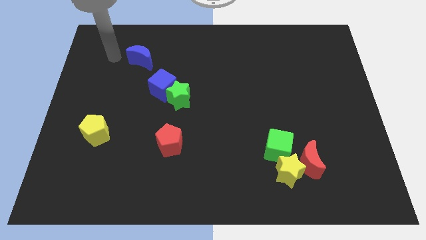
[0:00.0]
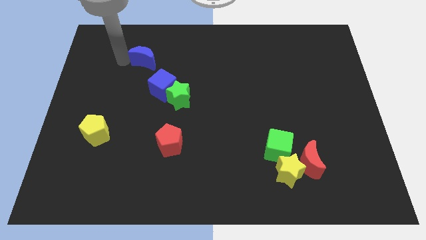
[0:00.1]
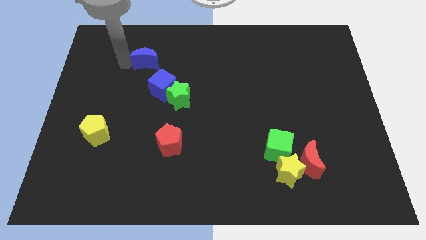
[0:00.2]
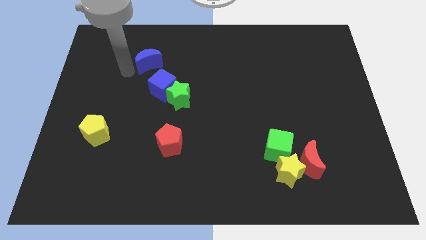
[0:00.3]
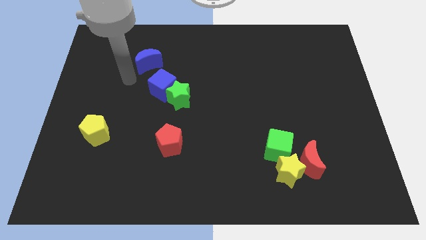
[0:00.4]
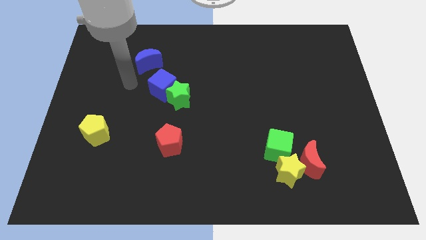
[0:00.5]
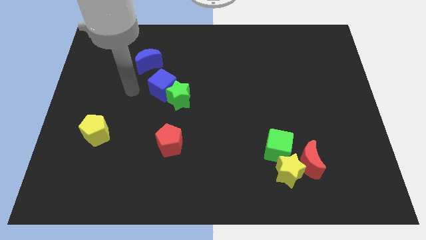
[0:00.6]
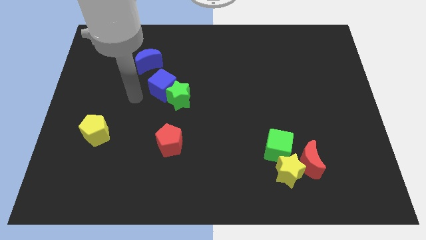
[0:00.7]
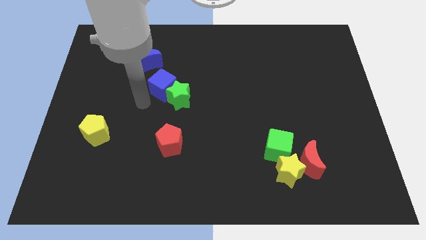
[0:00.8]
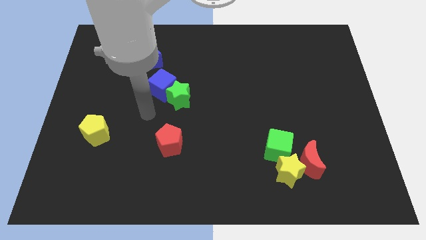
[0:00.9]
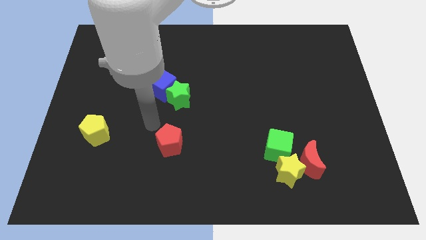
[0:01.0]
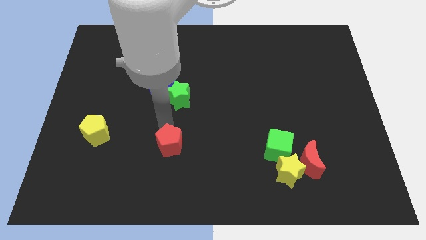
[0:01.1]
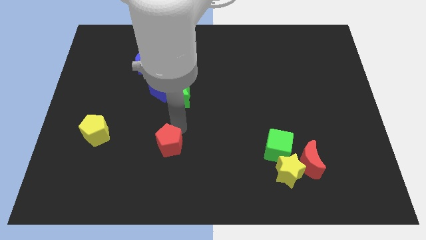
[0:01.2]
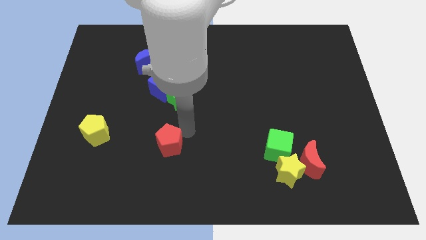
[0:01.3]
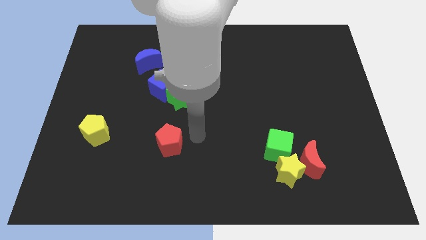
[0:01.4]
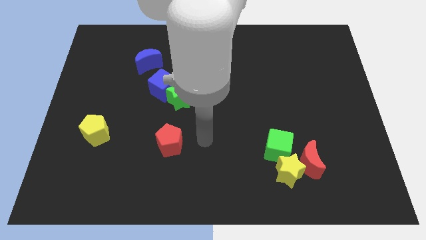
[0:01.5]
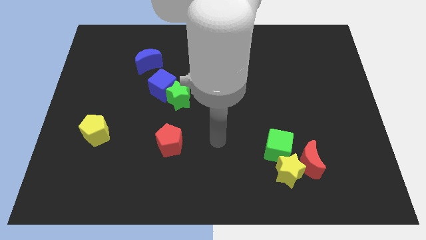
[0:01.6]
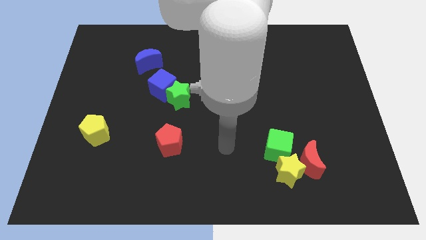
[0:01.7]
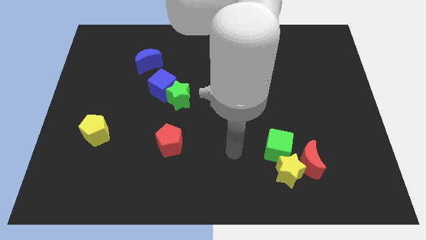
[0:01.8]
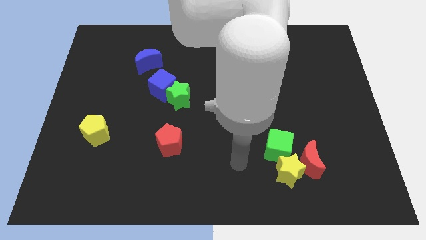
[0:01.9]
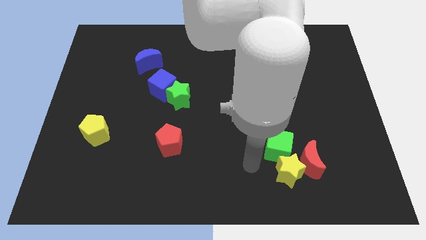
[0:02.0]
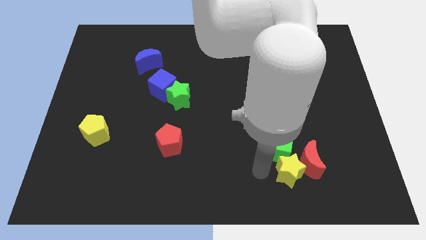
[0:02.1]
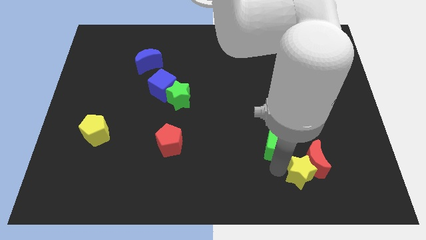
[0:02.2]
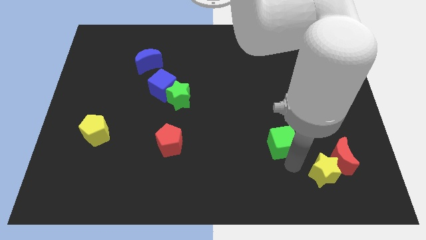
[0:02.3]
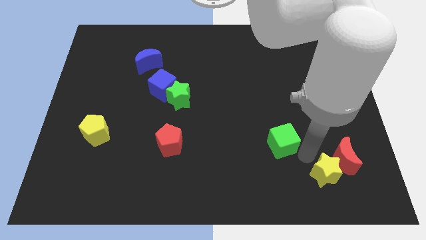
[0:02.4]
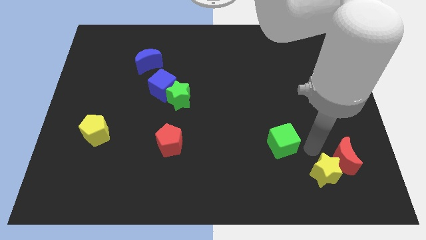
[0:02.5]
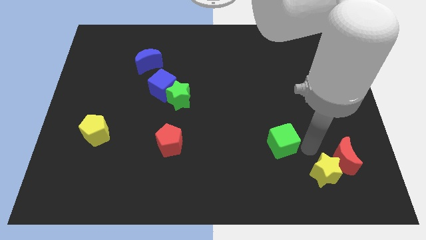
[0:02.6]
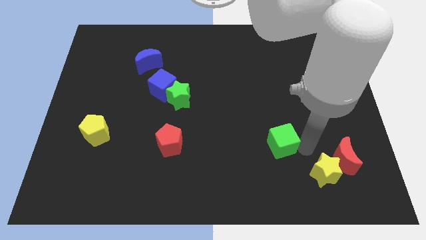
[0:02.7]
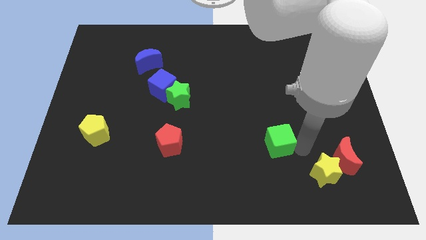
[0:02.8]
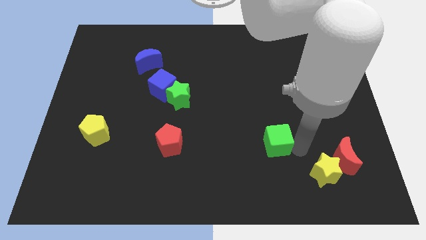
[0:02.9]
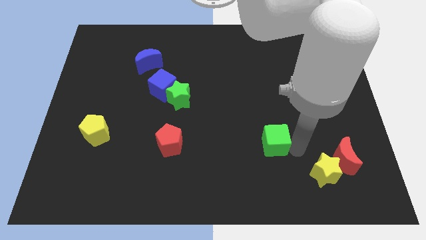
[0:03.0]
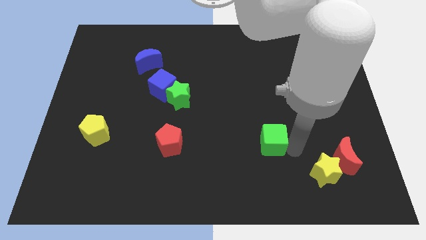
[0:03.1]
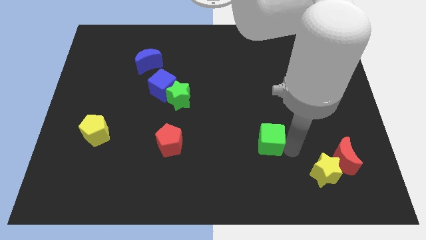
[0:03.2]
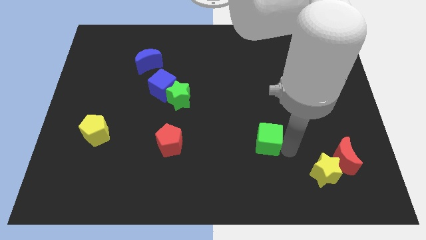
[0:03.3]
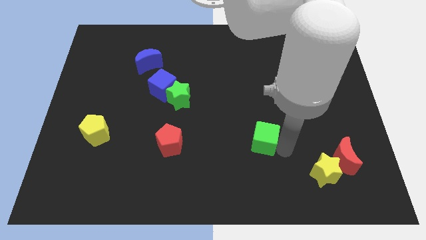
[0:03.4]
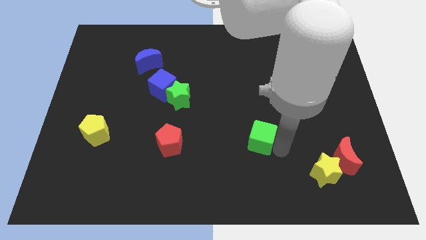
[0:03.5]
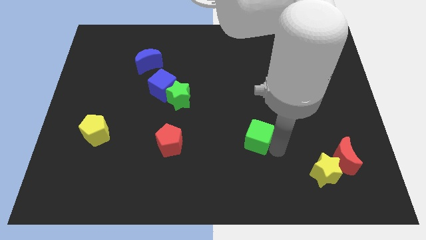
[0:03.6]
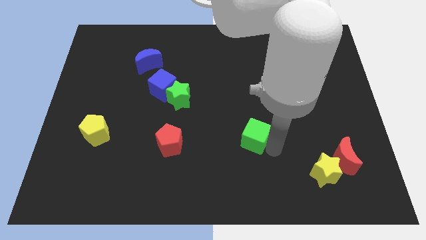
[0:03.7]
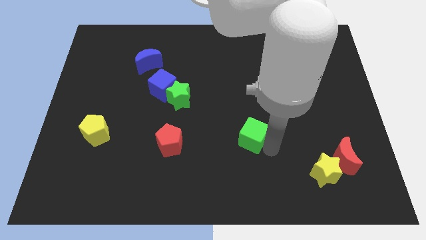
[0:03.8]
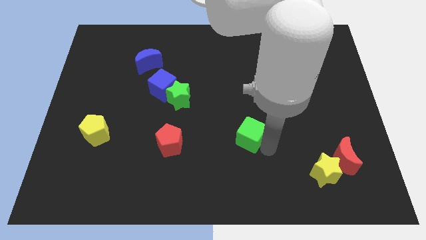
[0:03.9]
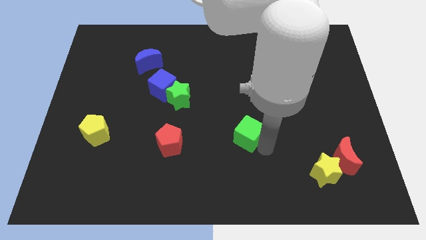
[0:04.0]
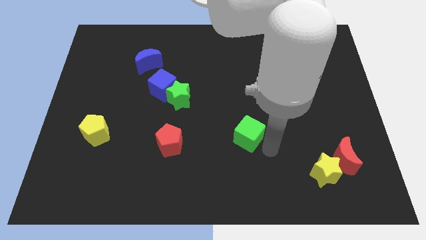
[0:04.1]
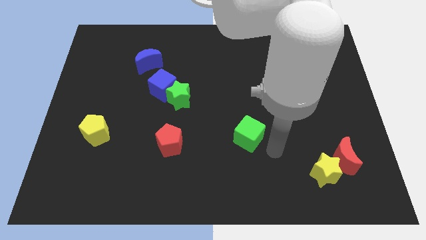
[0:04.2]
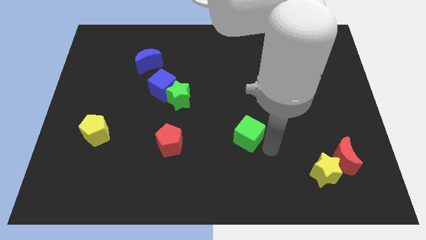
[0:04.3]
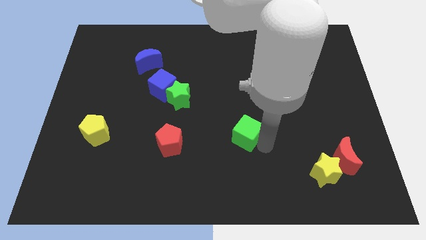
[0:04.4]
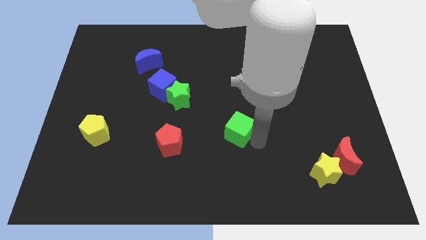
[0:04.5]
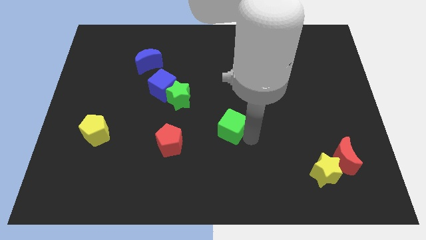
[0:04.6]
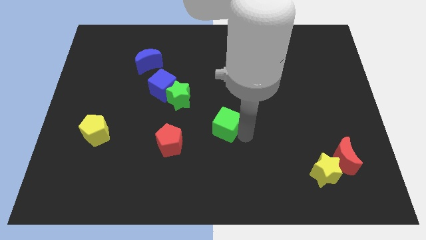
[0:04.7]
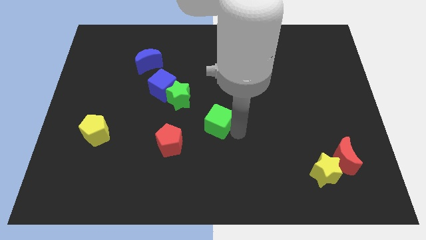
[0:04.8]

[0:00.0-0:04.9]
move the green cube to the bottom right side of the green star

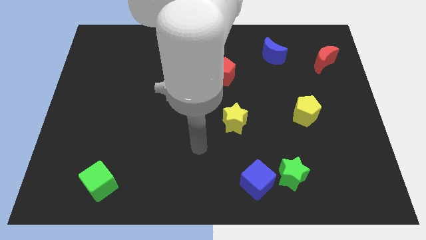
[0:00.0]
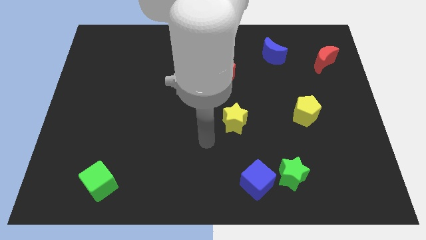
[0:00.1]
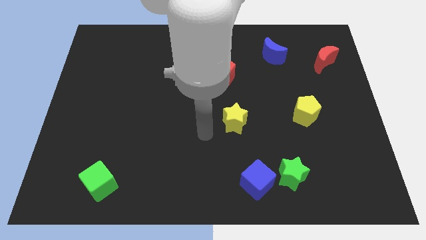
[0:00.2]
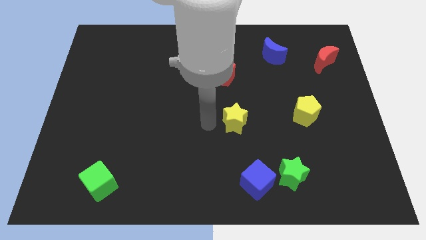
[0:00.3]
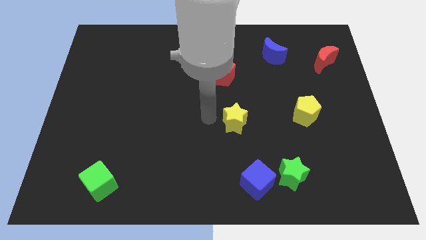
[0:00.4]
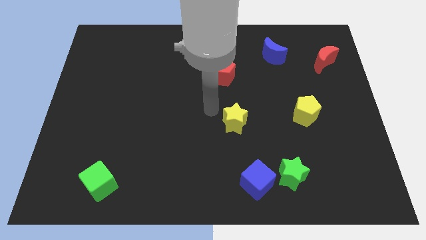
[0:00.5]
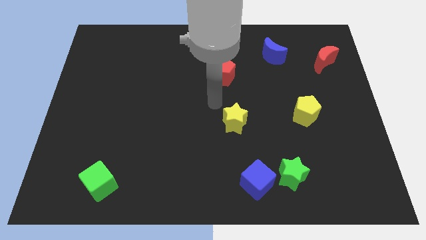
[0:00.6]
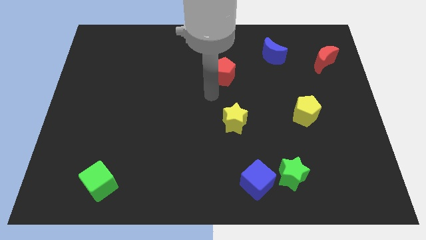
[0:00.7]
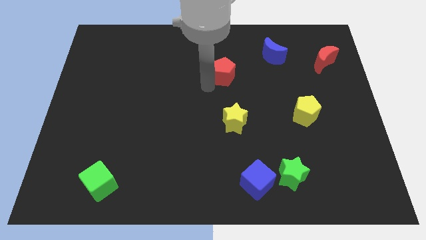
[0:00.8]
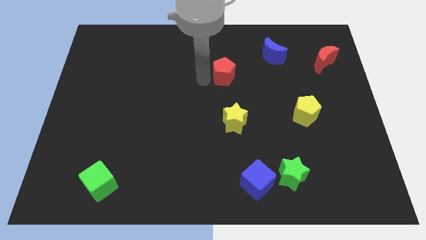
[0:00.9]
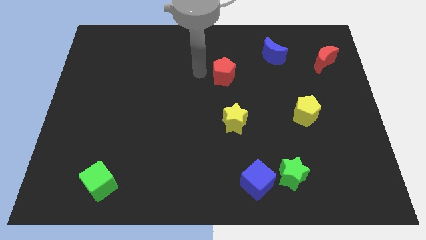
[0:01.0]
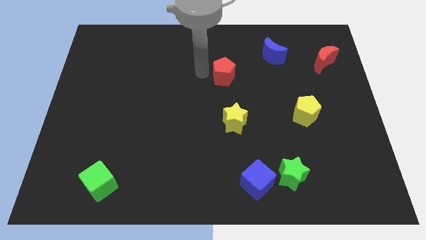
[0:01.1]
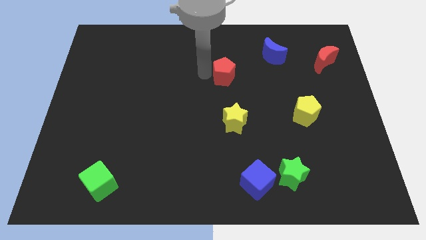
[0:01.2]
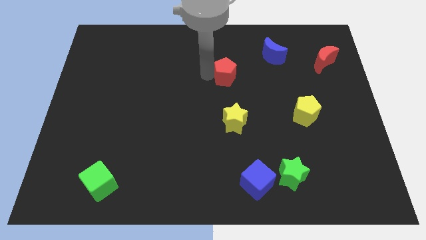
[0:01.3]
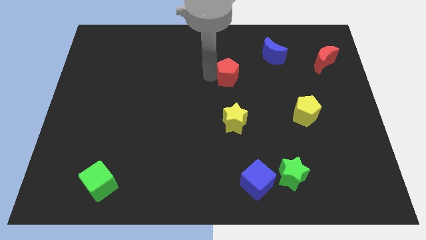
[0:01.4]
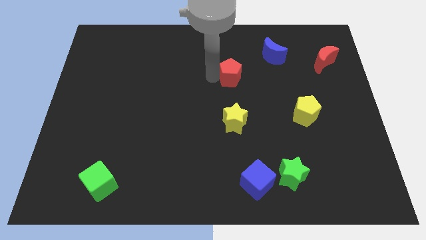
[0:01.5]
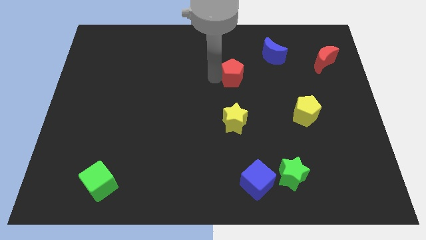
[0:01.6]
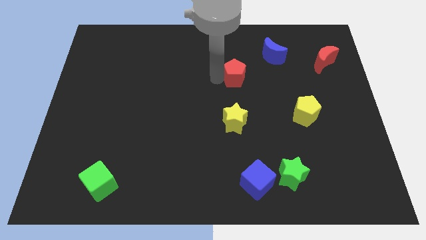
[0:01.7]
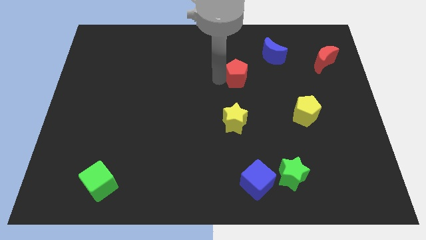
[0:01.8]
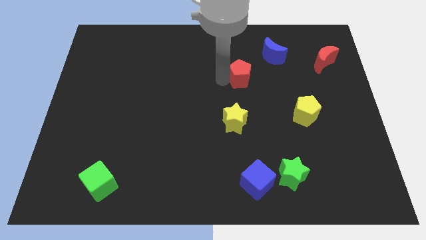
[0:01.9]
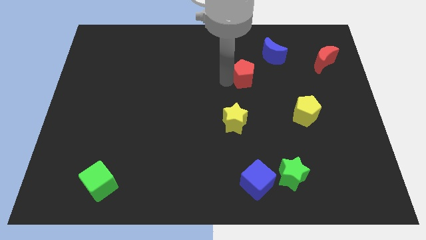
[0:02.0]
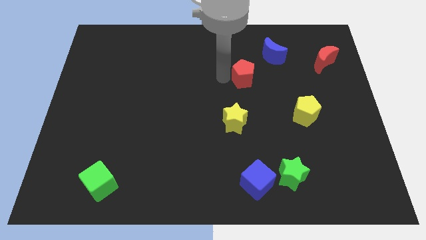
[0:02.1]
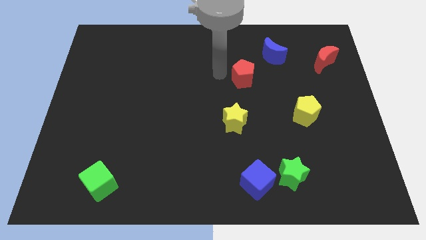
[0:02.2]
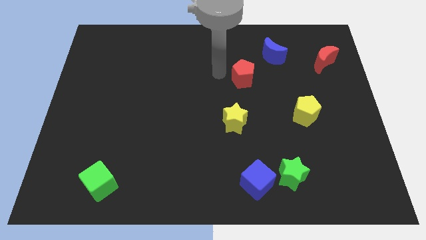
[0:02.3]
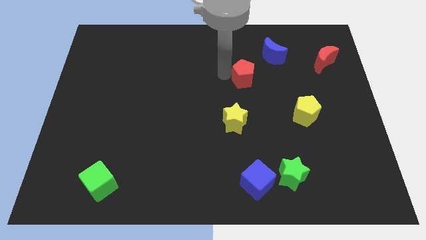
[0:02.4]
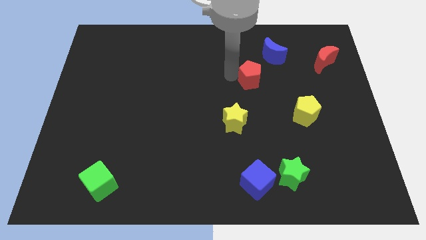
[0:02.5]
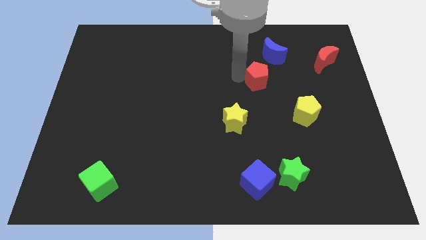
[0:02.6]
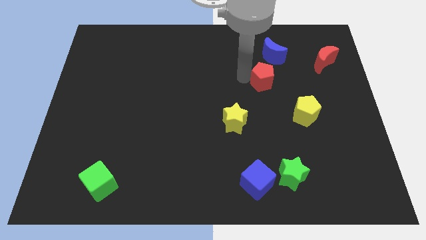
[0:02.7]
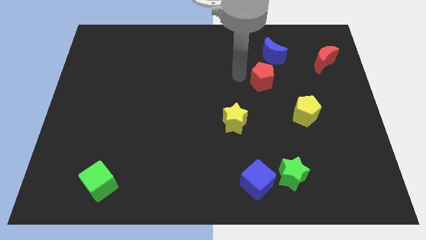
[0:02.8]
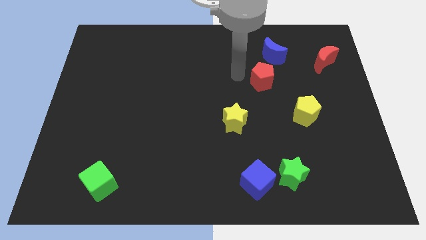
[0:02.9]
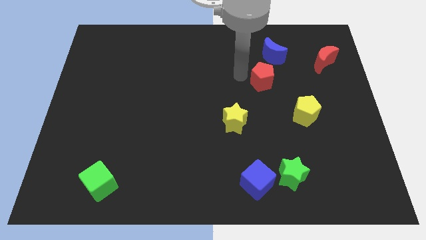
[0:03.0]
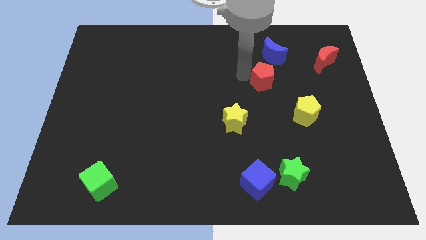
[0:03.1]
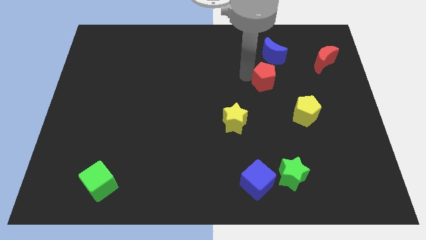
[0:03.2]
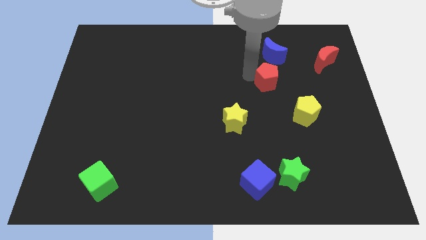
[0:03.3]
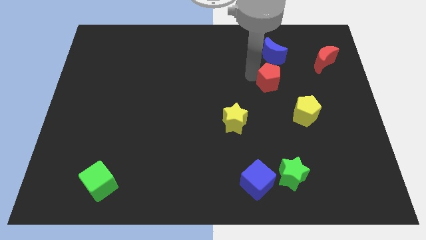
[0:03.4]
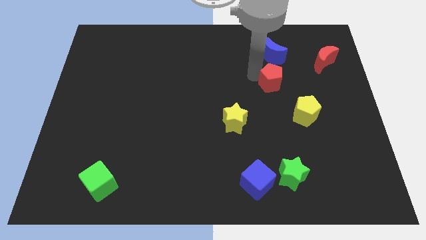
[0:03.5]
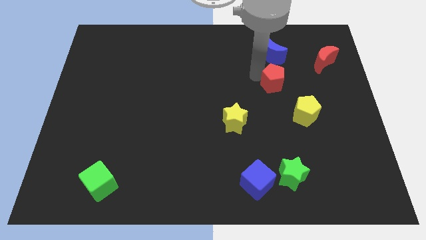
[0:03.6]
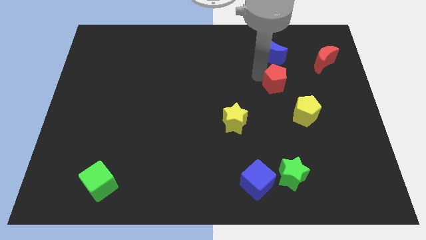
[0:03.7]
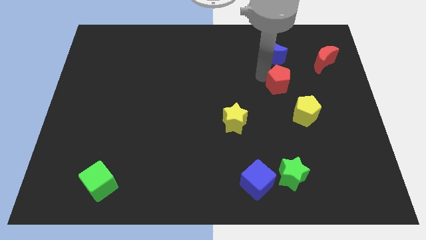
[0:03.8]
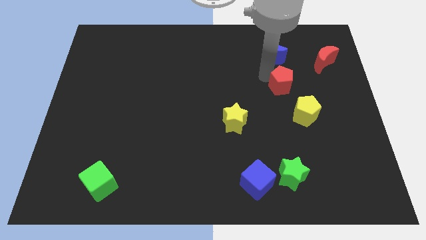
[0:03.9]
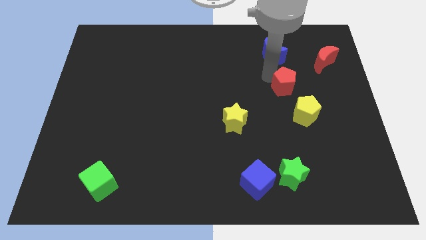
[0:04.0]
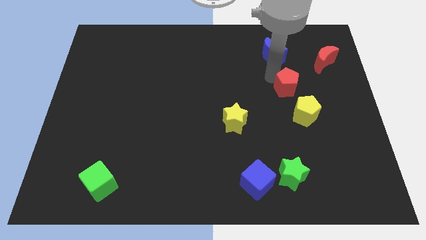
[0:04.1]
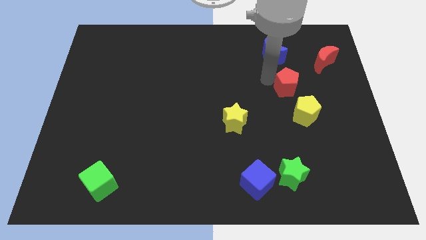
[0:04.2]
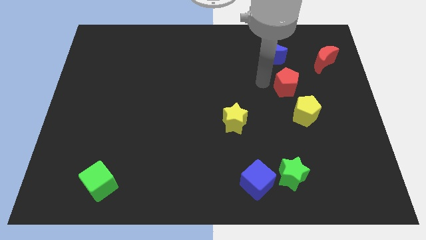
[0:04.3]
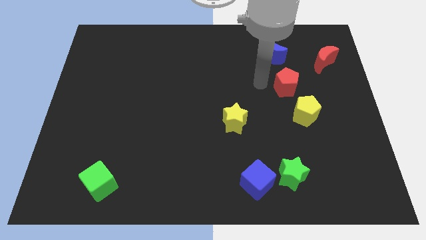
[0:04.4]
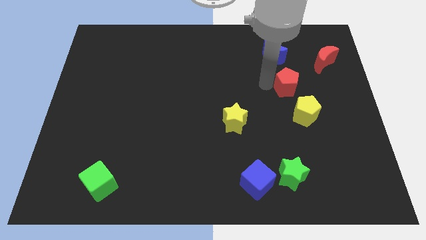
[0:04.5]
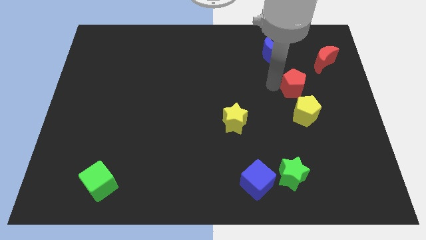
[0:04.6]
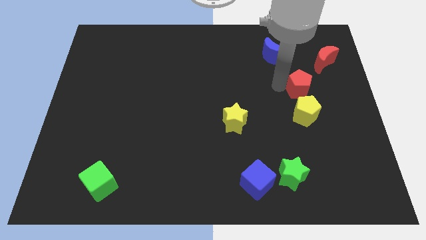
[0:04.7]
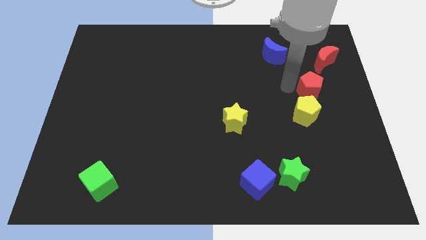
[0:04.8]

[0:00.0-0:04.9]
move the red pentagon below the red moon
